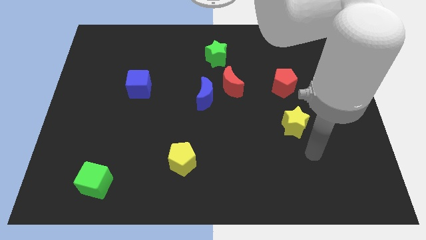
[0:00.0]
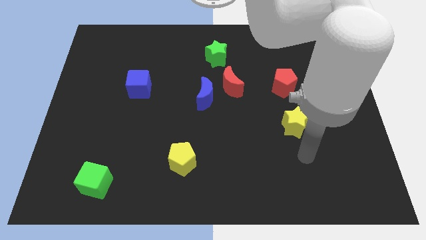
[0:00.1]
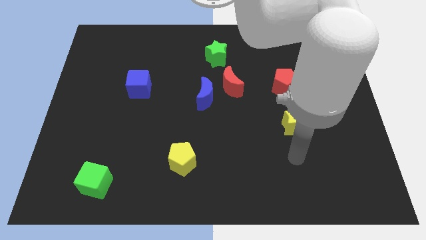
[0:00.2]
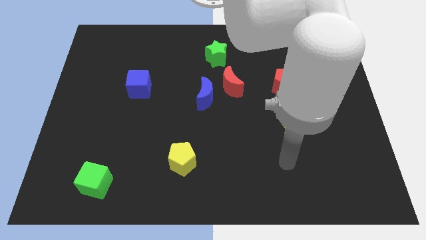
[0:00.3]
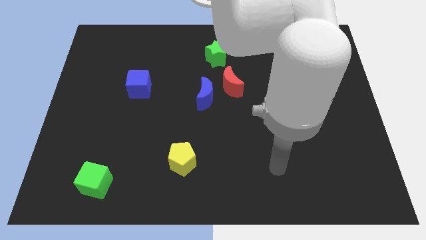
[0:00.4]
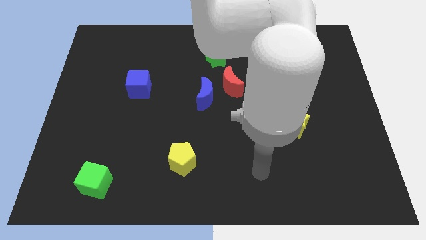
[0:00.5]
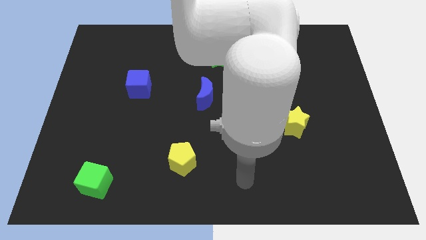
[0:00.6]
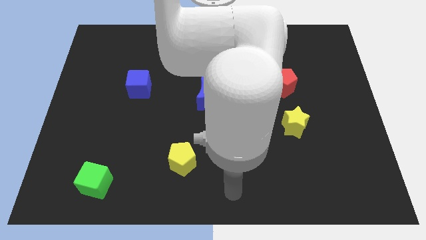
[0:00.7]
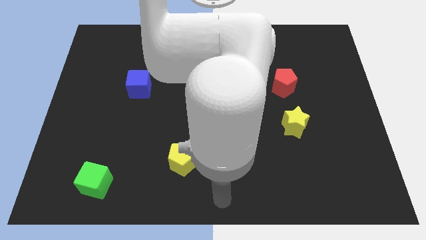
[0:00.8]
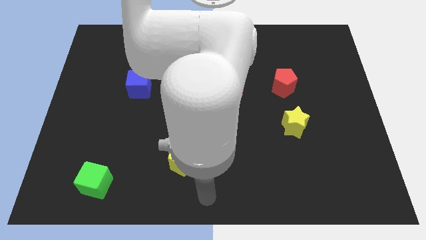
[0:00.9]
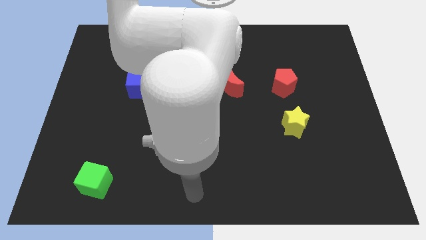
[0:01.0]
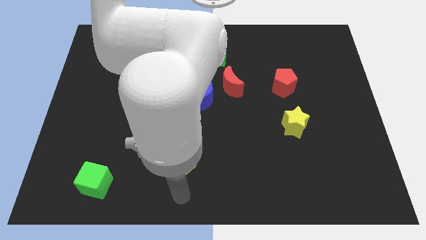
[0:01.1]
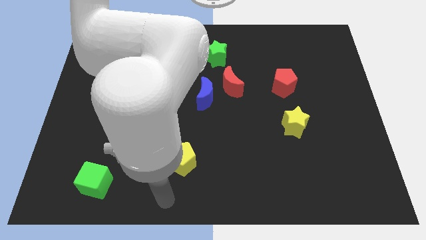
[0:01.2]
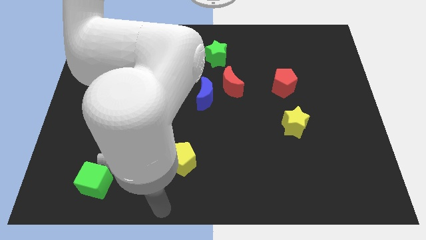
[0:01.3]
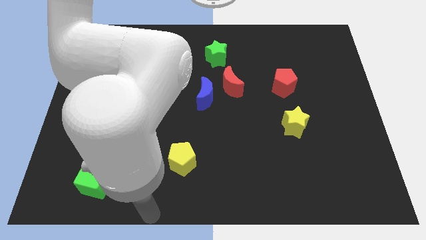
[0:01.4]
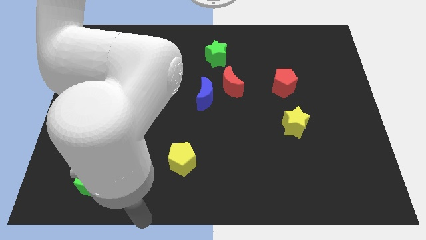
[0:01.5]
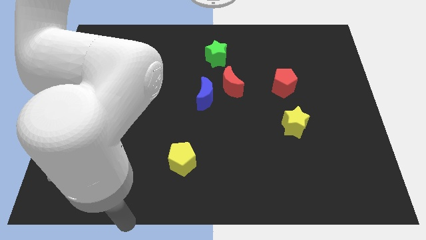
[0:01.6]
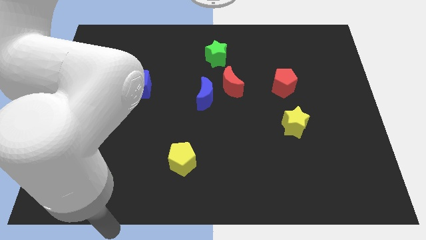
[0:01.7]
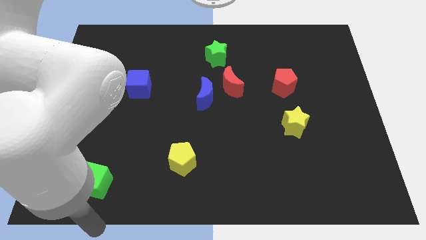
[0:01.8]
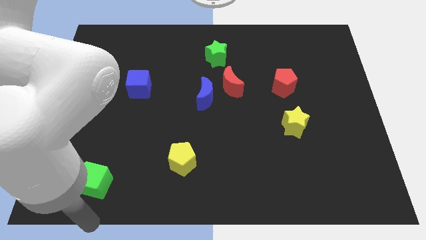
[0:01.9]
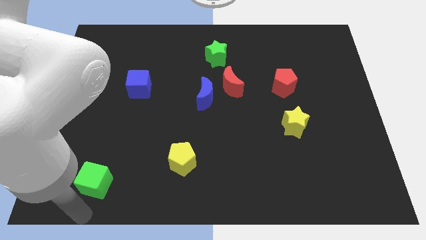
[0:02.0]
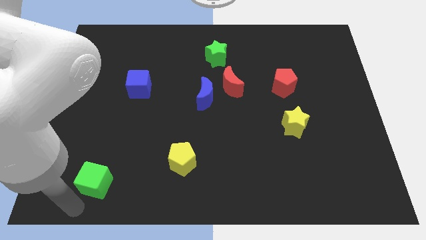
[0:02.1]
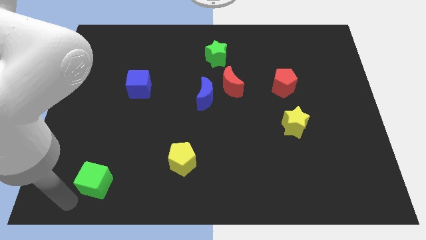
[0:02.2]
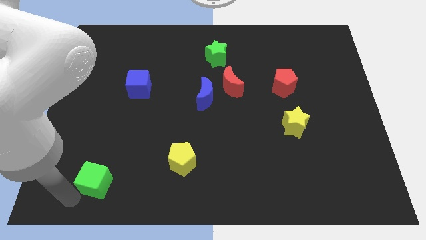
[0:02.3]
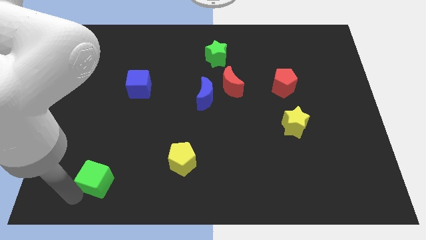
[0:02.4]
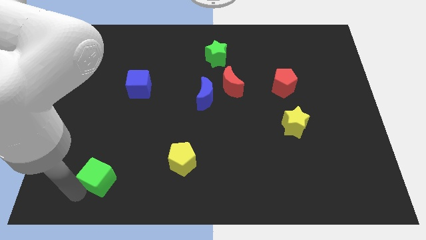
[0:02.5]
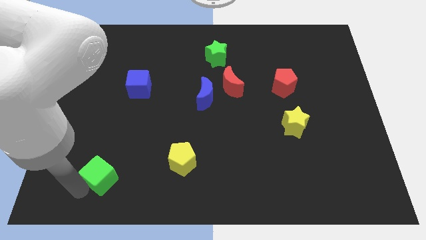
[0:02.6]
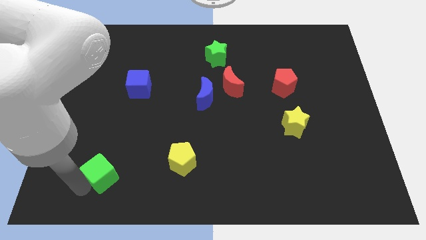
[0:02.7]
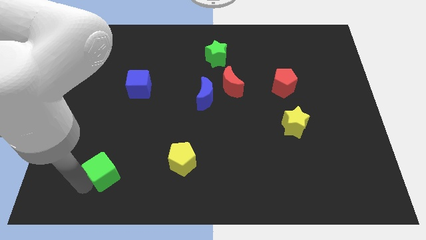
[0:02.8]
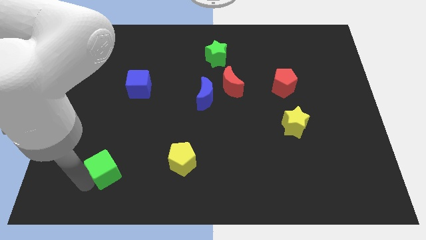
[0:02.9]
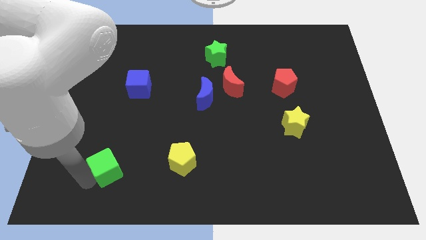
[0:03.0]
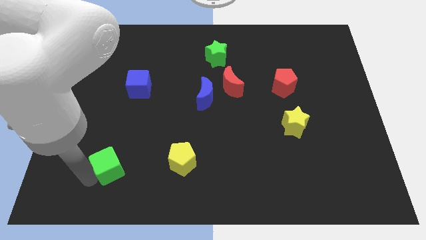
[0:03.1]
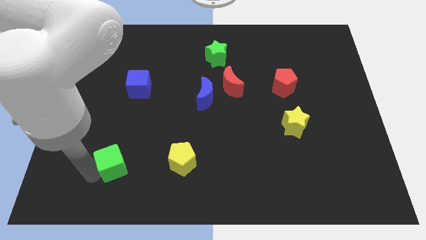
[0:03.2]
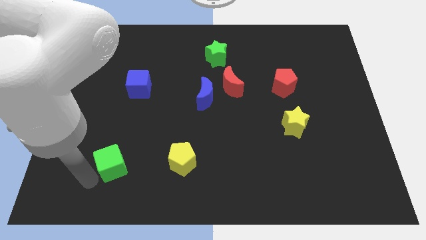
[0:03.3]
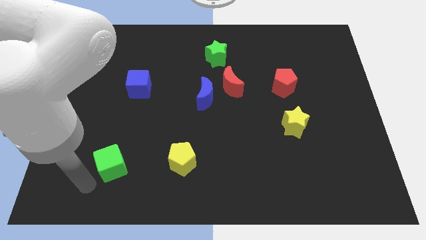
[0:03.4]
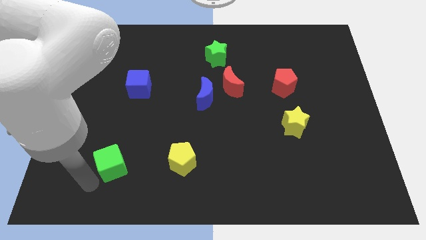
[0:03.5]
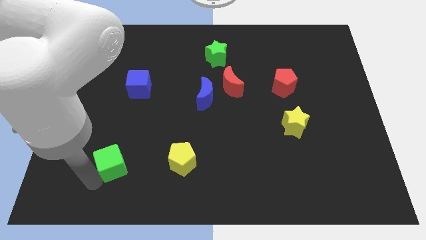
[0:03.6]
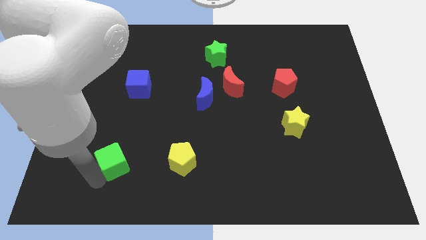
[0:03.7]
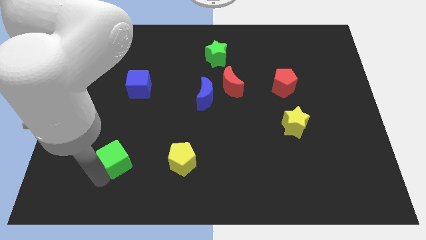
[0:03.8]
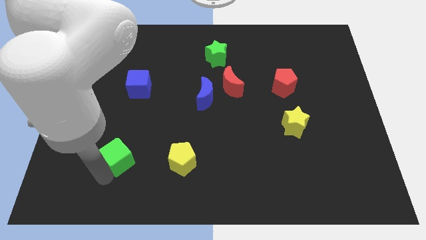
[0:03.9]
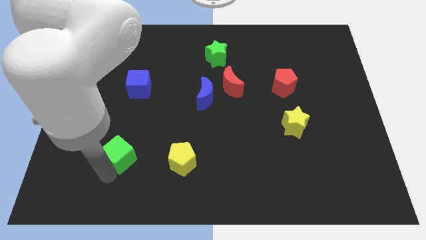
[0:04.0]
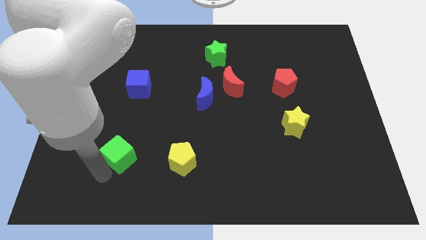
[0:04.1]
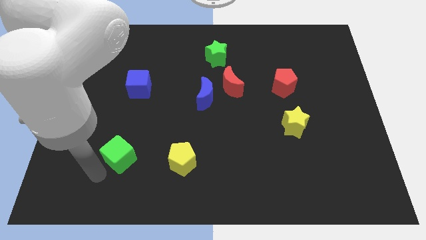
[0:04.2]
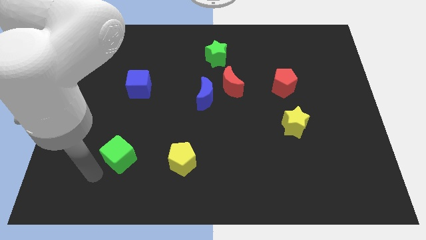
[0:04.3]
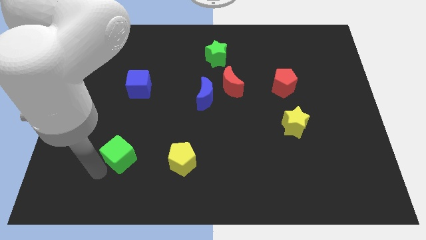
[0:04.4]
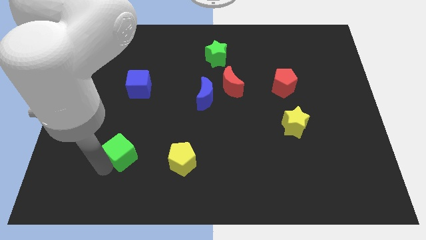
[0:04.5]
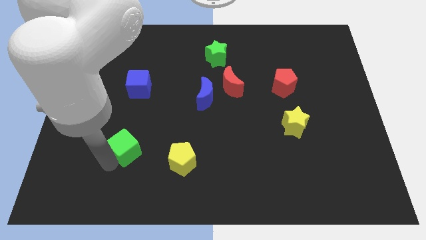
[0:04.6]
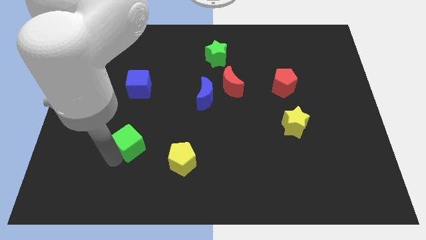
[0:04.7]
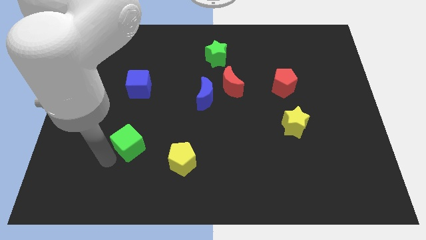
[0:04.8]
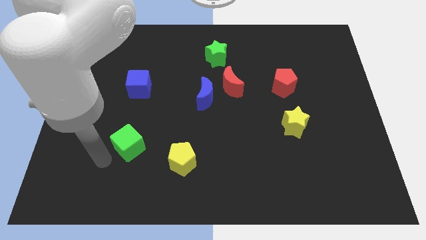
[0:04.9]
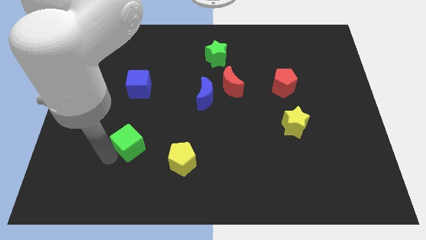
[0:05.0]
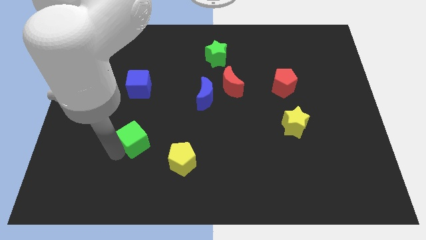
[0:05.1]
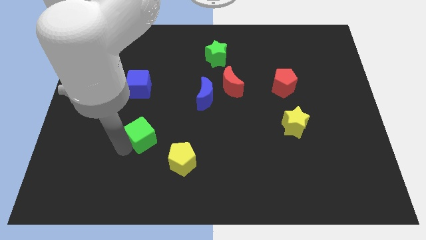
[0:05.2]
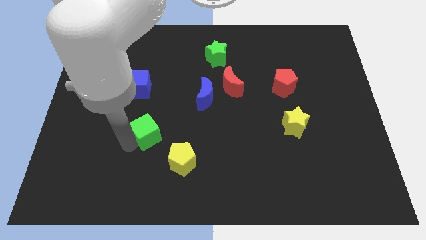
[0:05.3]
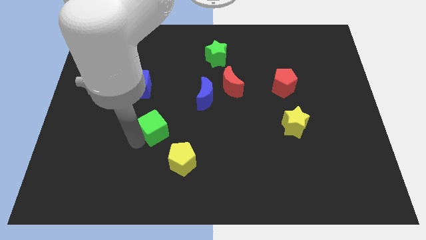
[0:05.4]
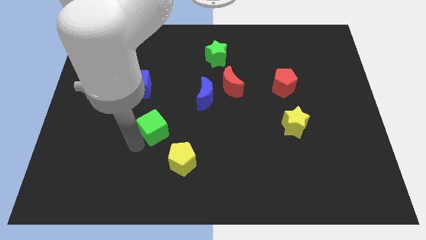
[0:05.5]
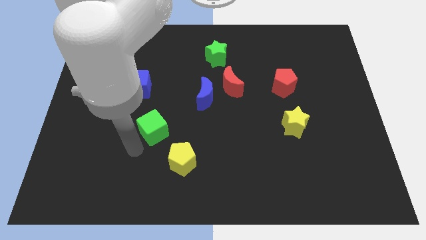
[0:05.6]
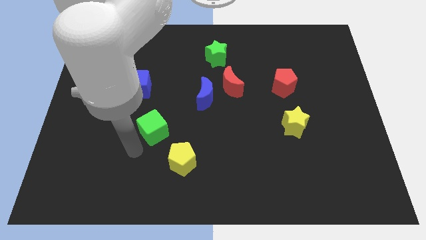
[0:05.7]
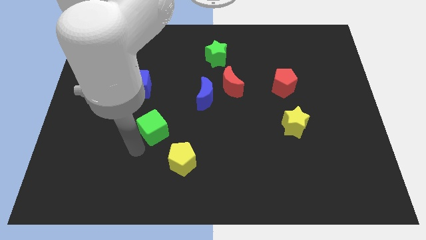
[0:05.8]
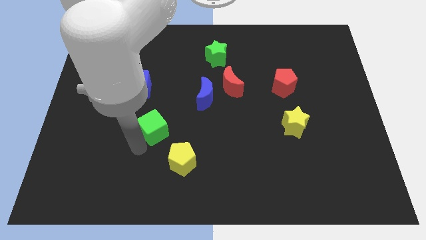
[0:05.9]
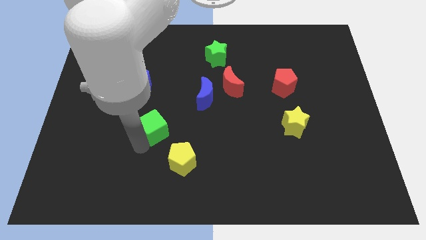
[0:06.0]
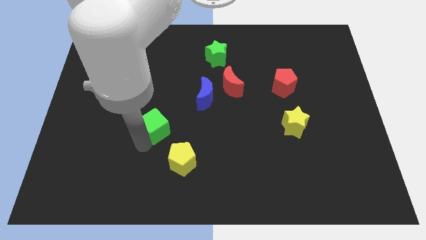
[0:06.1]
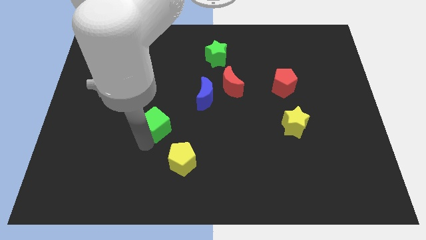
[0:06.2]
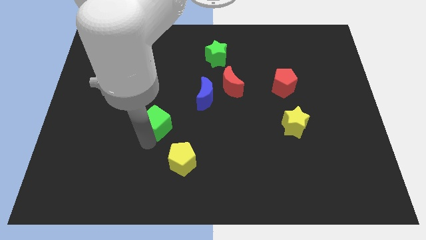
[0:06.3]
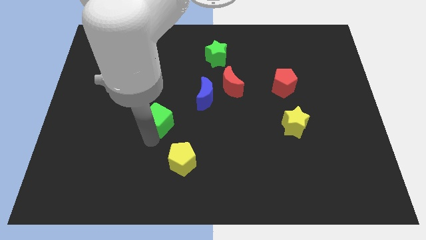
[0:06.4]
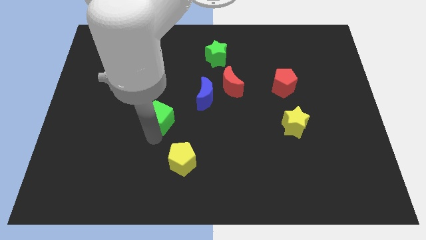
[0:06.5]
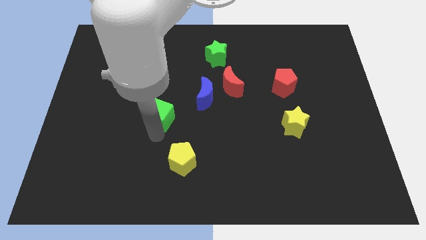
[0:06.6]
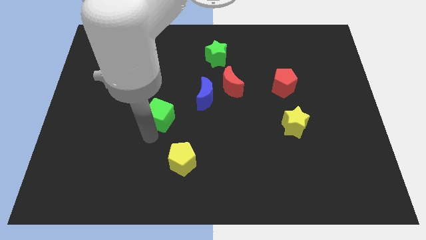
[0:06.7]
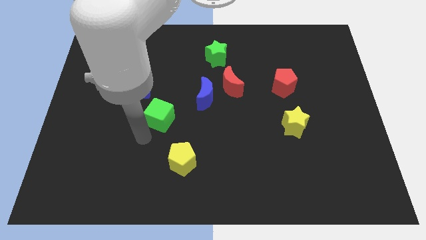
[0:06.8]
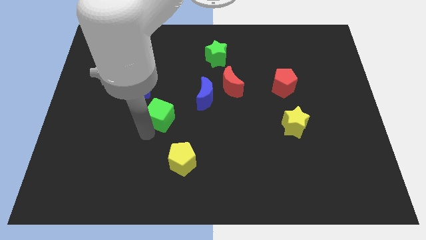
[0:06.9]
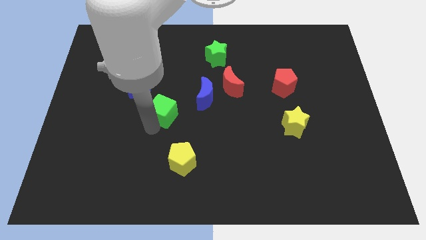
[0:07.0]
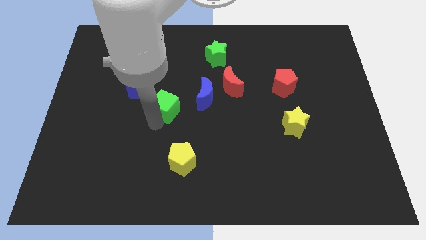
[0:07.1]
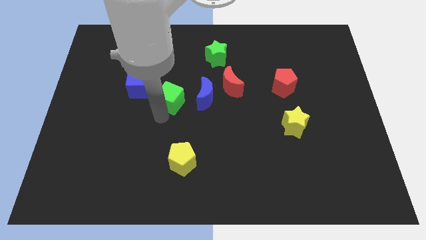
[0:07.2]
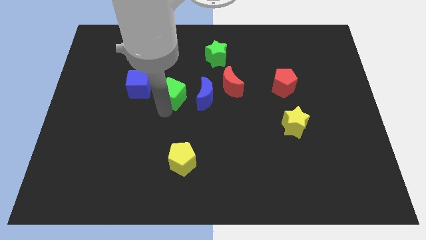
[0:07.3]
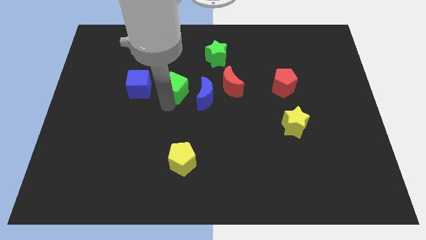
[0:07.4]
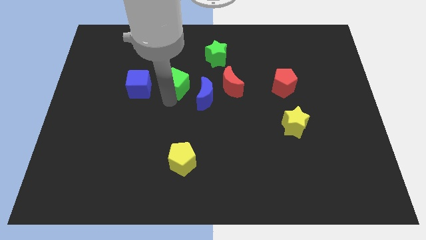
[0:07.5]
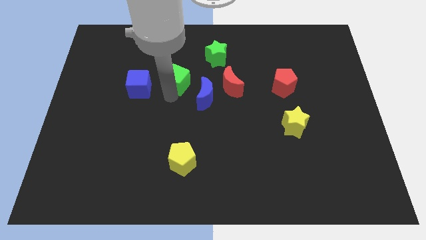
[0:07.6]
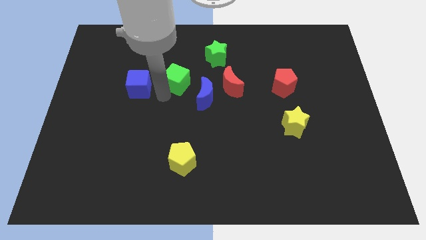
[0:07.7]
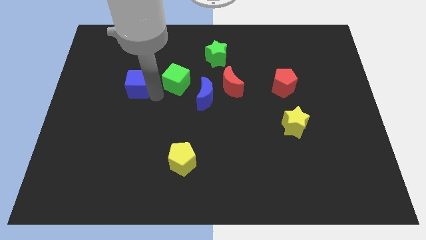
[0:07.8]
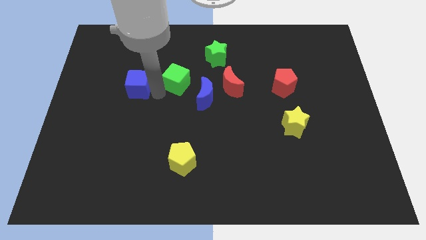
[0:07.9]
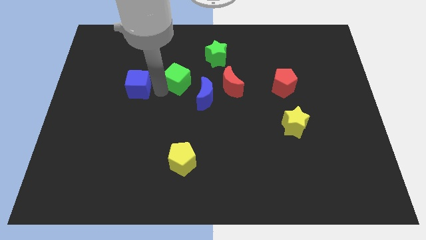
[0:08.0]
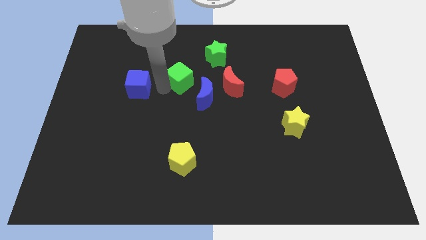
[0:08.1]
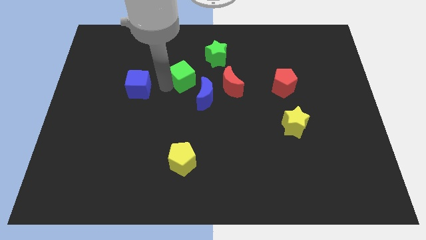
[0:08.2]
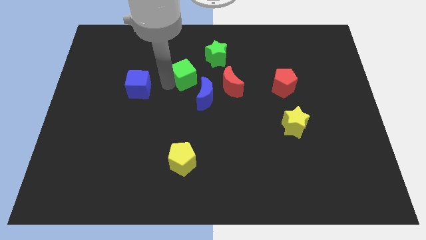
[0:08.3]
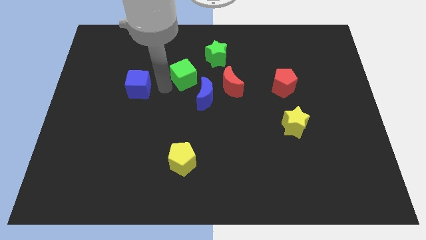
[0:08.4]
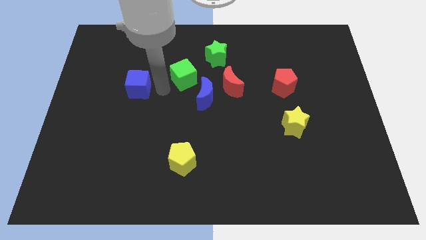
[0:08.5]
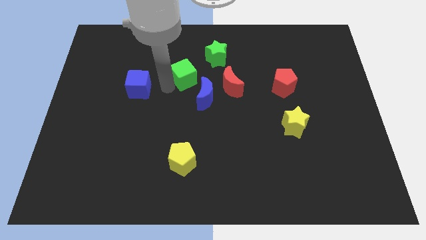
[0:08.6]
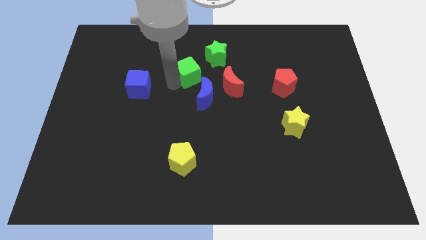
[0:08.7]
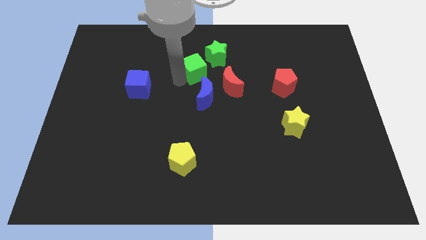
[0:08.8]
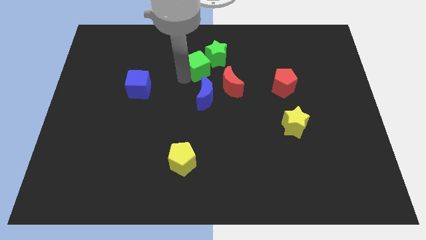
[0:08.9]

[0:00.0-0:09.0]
put the green cube towards the green star
